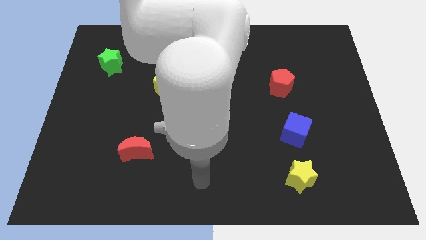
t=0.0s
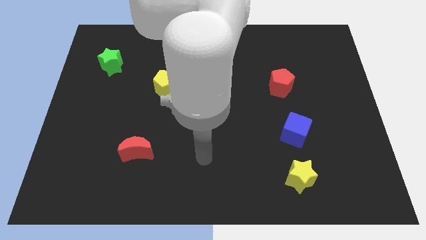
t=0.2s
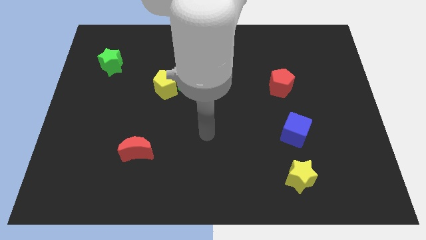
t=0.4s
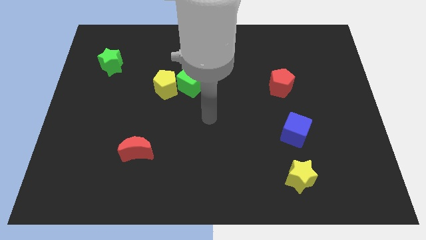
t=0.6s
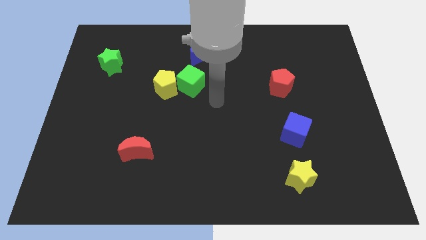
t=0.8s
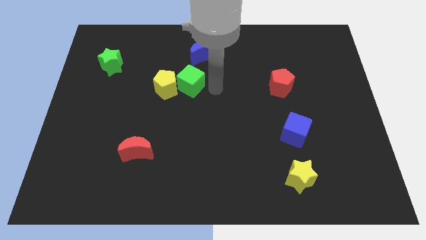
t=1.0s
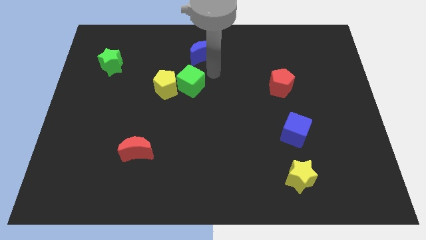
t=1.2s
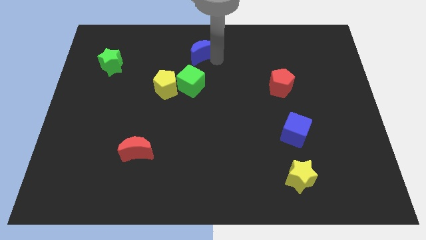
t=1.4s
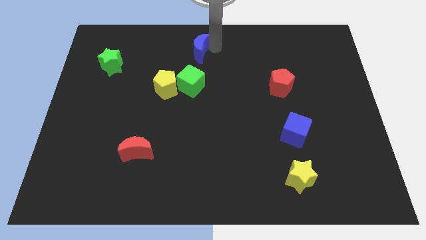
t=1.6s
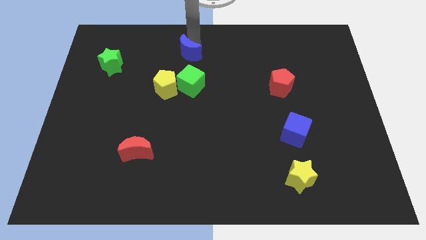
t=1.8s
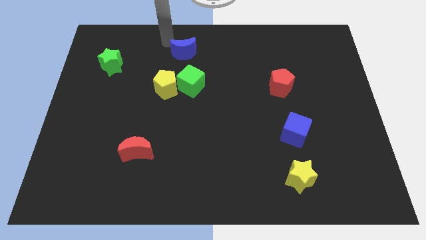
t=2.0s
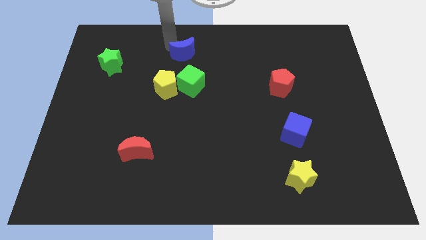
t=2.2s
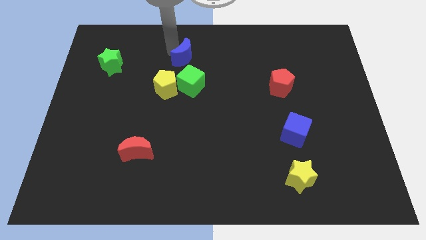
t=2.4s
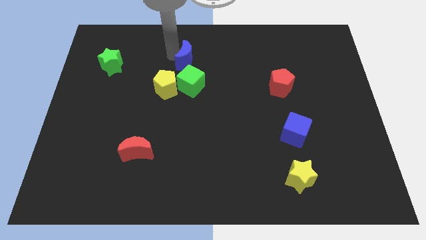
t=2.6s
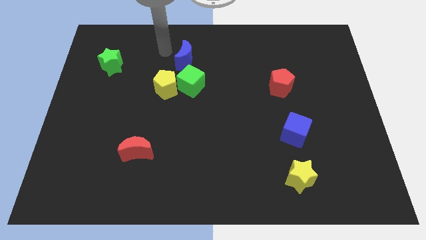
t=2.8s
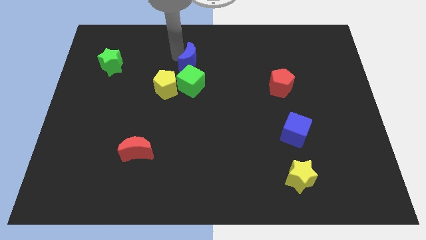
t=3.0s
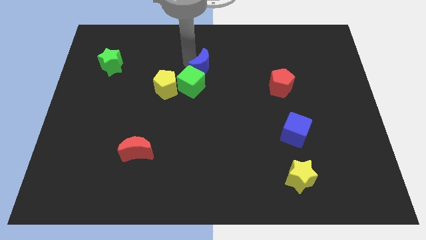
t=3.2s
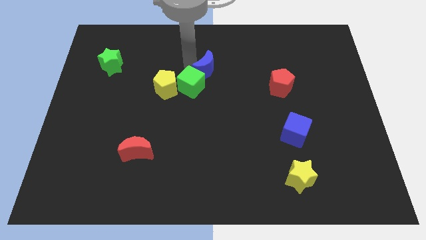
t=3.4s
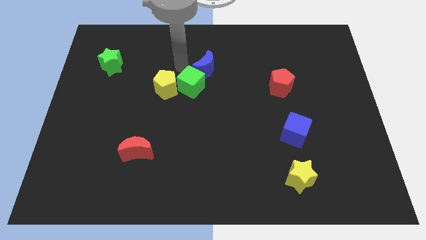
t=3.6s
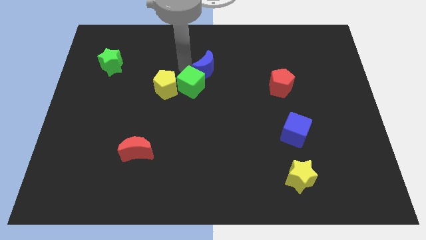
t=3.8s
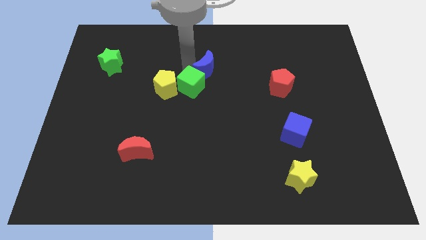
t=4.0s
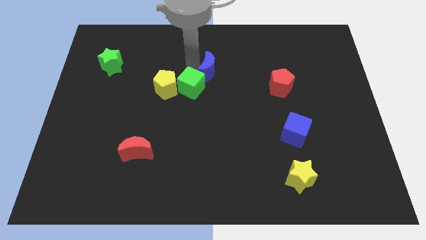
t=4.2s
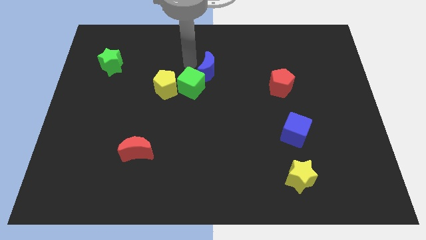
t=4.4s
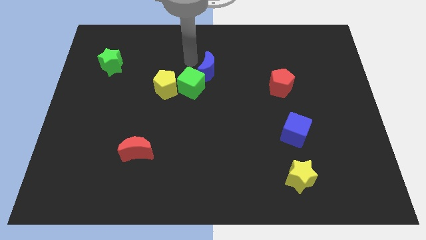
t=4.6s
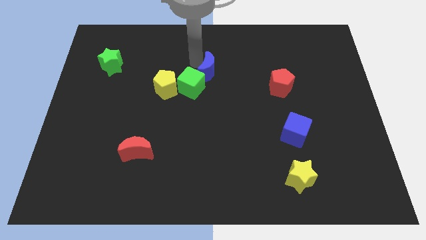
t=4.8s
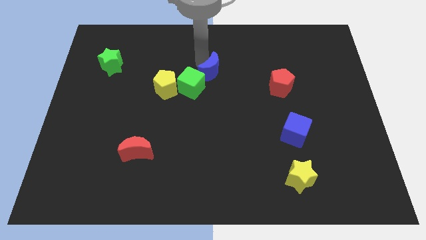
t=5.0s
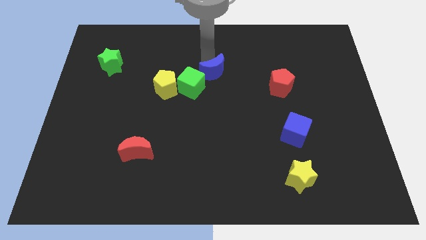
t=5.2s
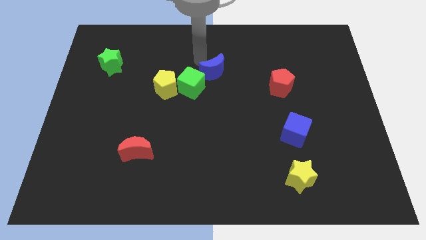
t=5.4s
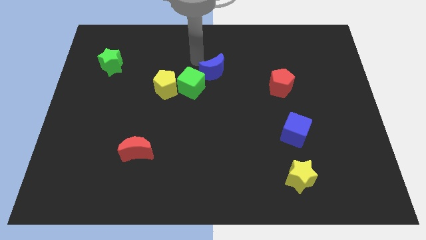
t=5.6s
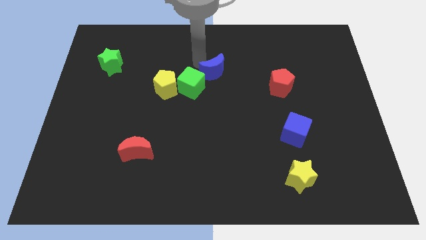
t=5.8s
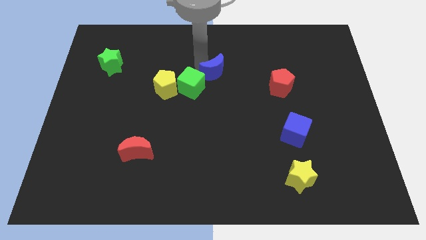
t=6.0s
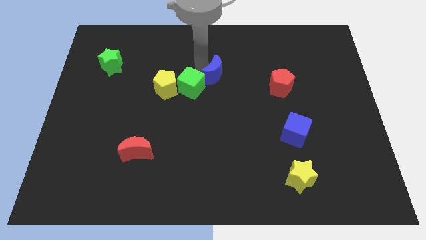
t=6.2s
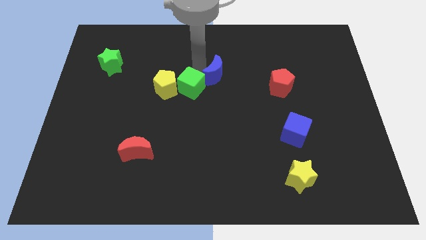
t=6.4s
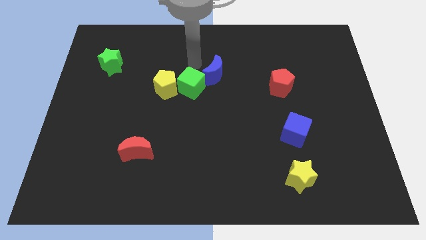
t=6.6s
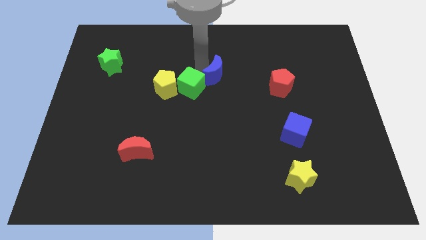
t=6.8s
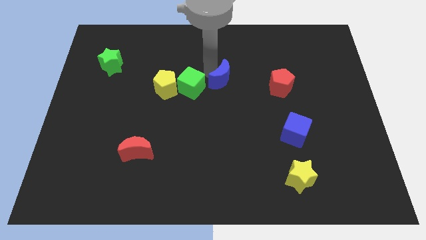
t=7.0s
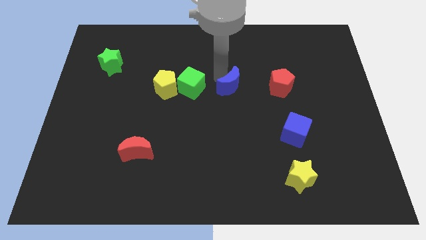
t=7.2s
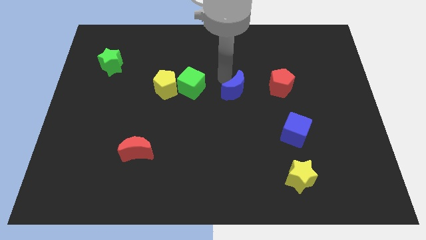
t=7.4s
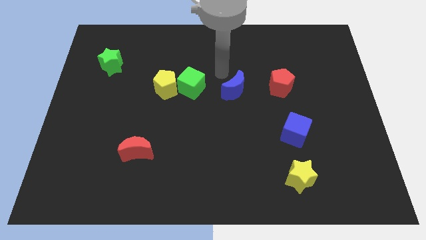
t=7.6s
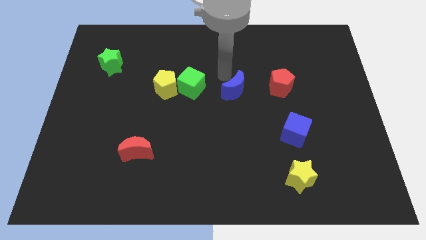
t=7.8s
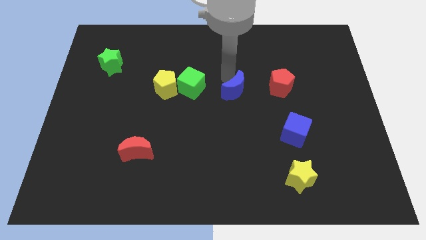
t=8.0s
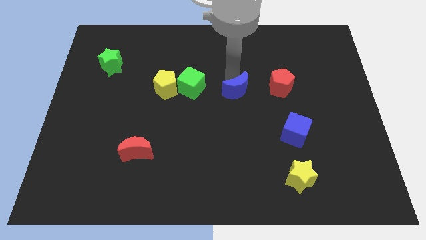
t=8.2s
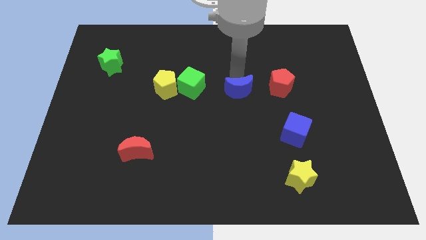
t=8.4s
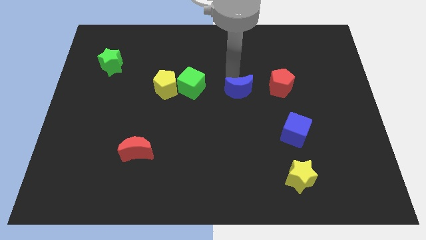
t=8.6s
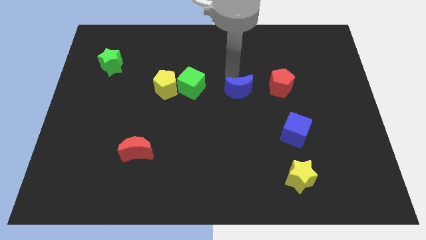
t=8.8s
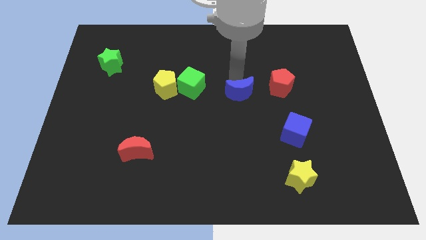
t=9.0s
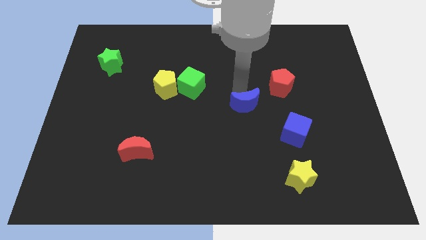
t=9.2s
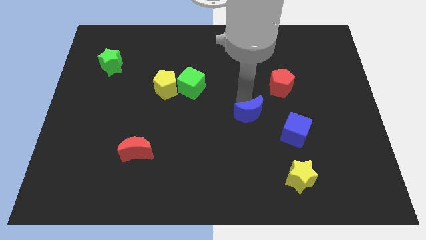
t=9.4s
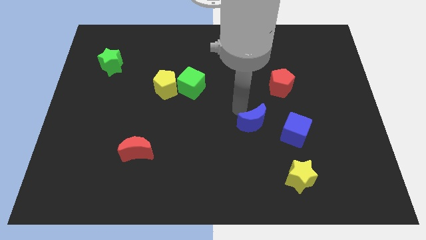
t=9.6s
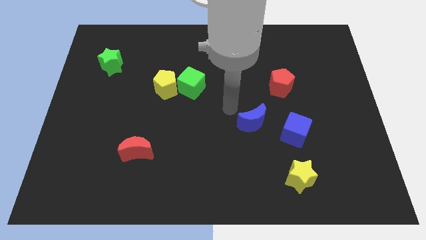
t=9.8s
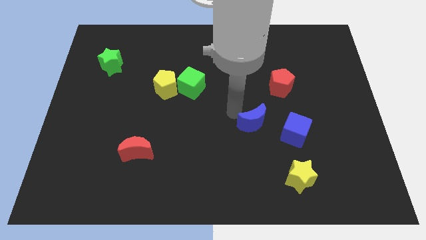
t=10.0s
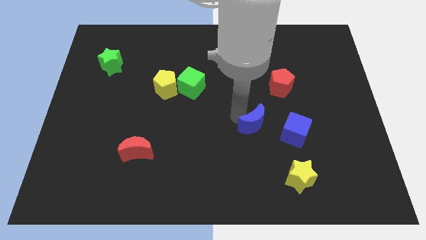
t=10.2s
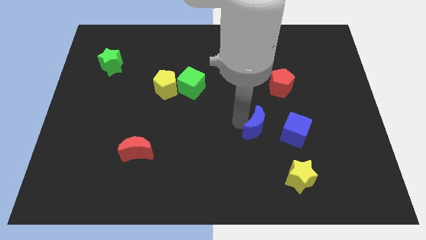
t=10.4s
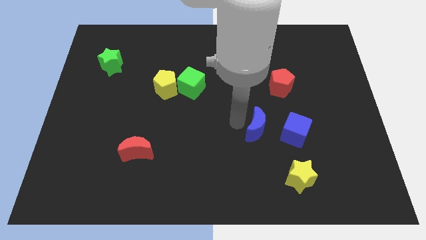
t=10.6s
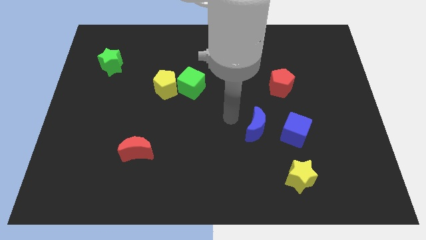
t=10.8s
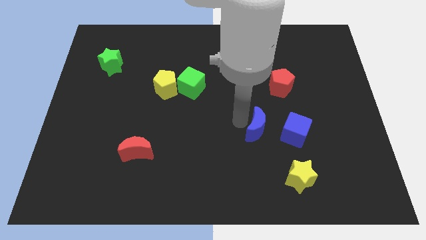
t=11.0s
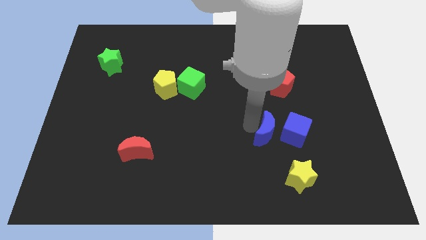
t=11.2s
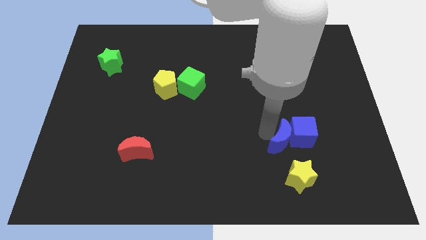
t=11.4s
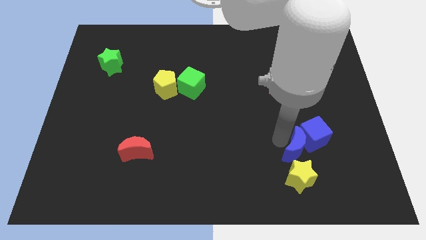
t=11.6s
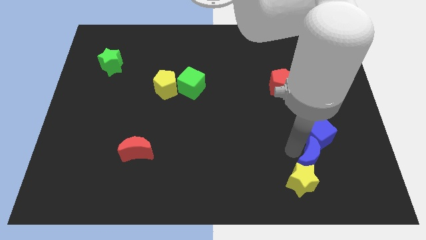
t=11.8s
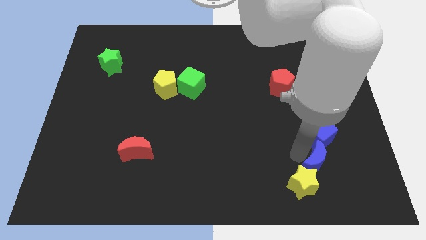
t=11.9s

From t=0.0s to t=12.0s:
put the blue moon right of the yellow star

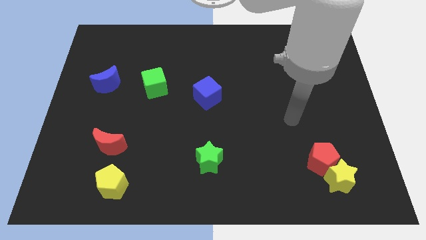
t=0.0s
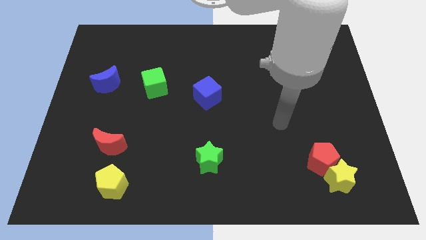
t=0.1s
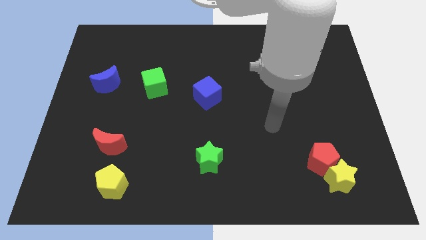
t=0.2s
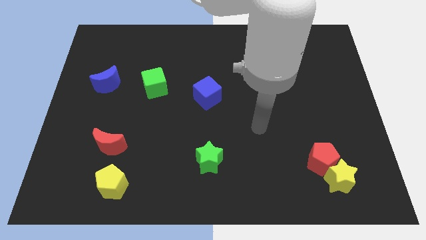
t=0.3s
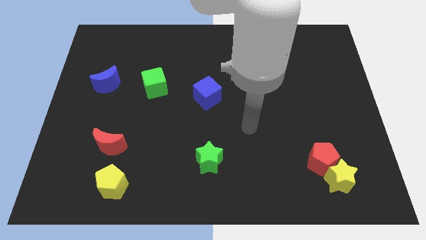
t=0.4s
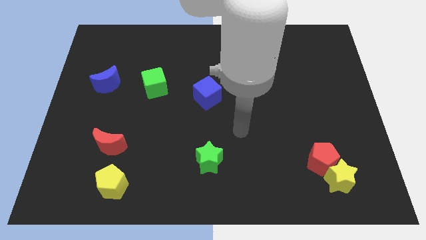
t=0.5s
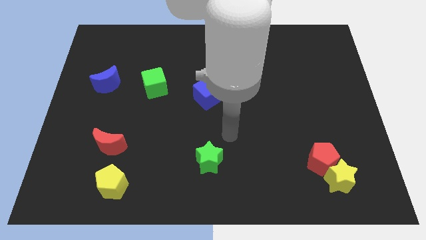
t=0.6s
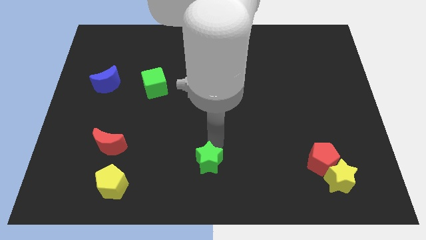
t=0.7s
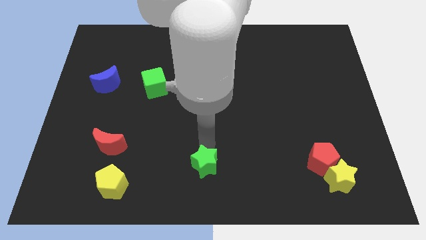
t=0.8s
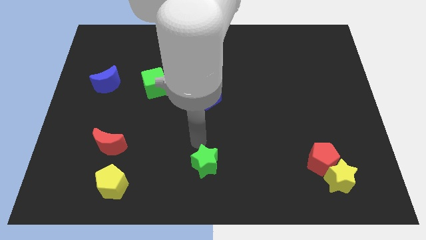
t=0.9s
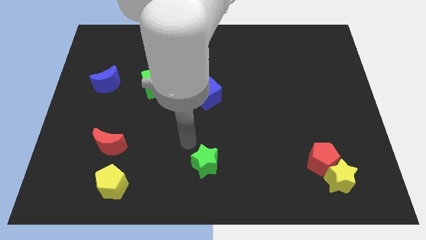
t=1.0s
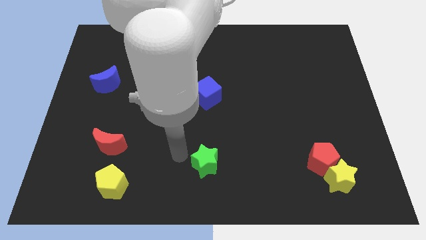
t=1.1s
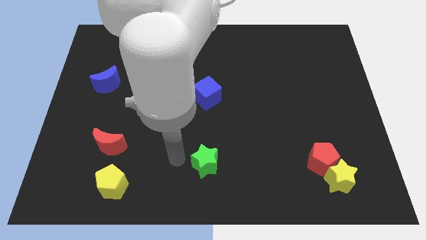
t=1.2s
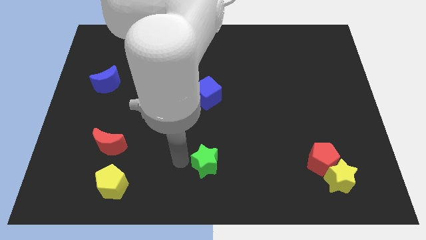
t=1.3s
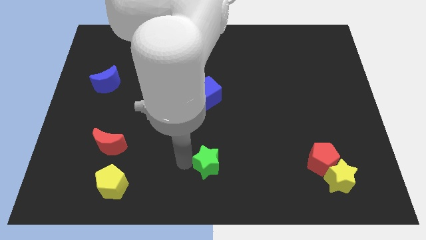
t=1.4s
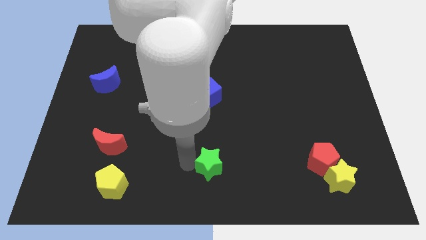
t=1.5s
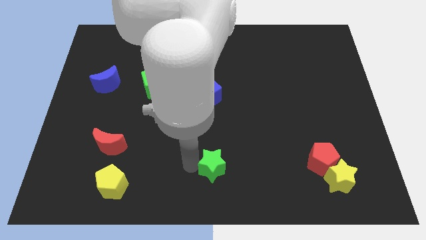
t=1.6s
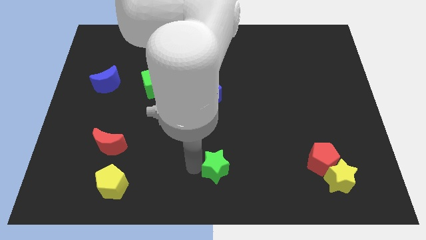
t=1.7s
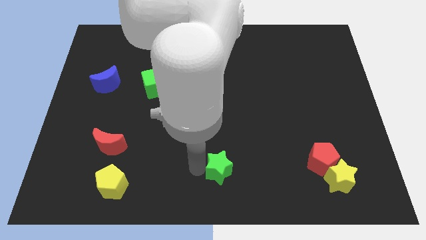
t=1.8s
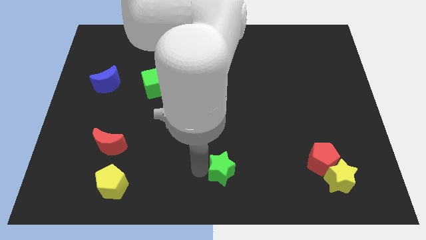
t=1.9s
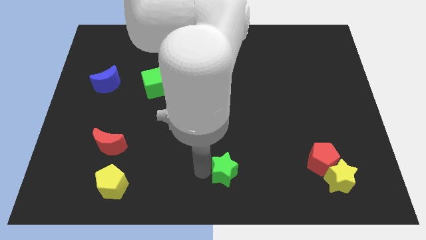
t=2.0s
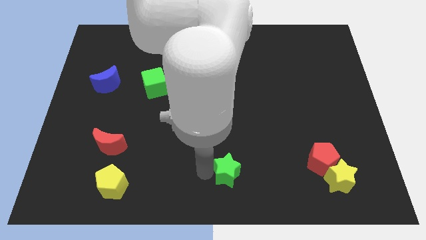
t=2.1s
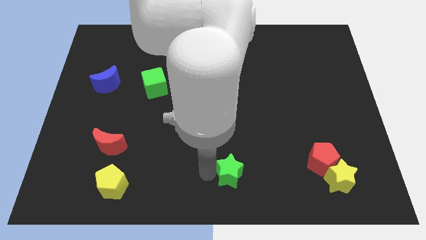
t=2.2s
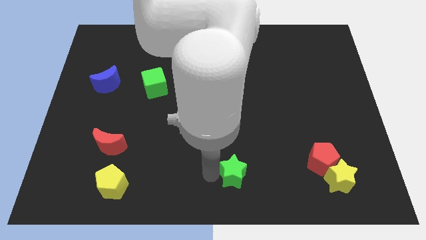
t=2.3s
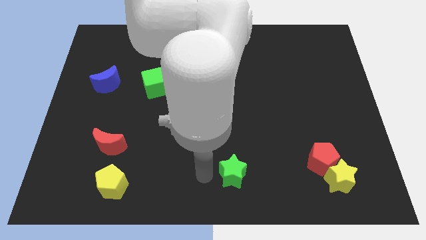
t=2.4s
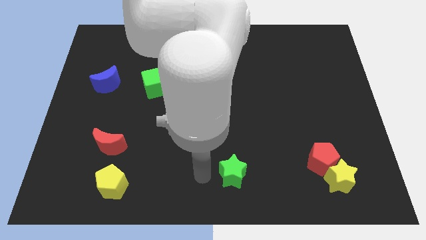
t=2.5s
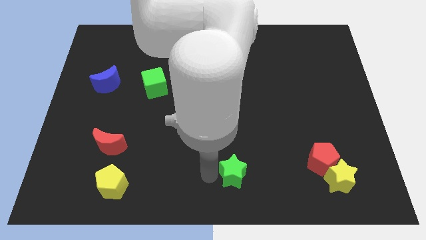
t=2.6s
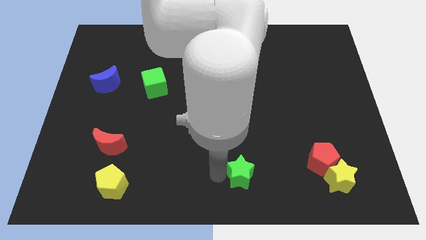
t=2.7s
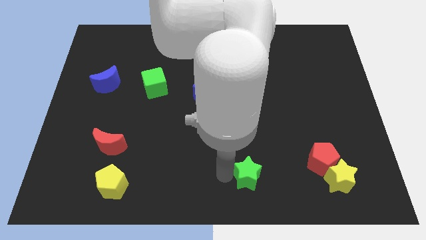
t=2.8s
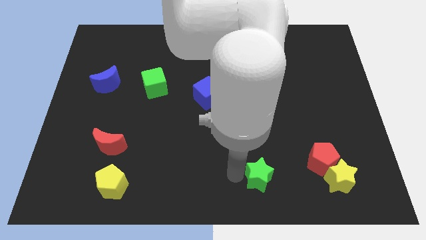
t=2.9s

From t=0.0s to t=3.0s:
put the green star just left of the yellow star
